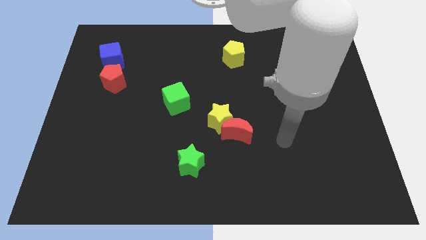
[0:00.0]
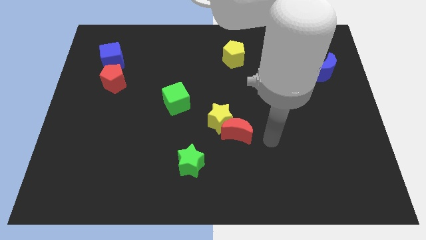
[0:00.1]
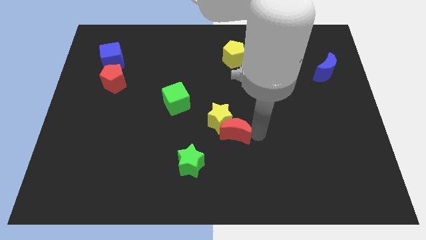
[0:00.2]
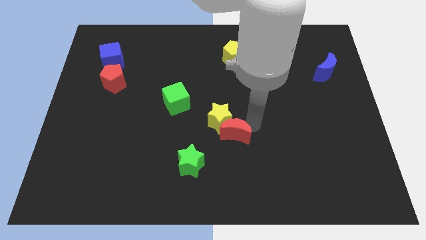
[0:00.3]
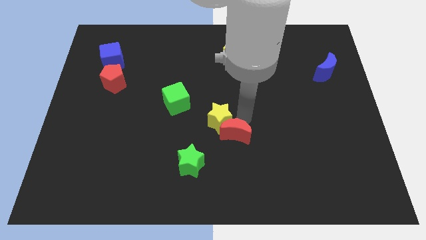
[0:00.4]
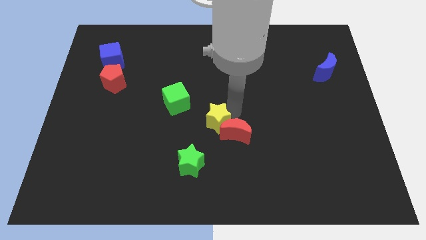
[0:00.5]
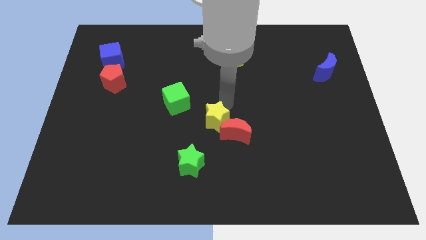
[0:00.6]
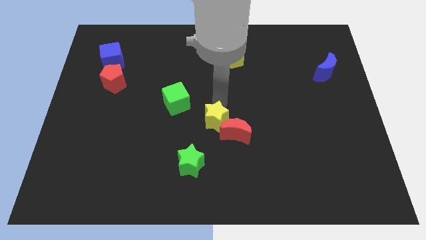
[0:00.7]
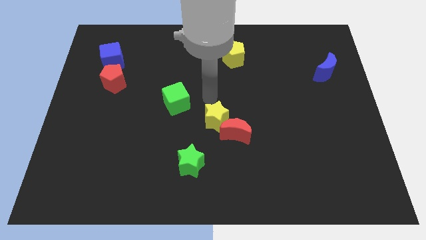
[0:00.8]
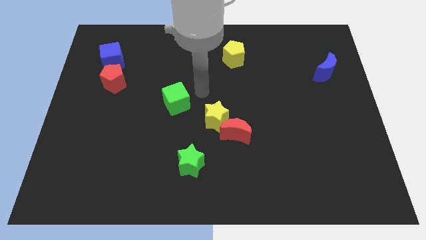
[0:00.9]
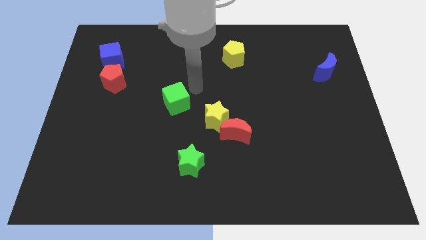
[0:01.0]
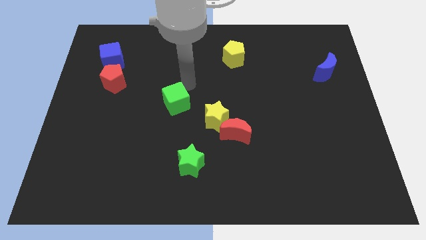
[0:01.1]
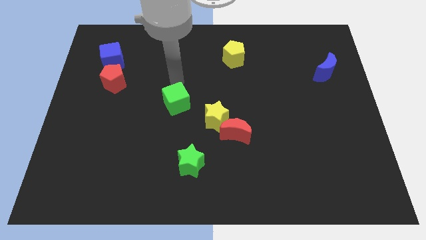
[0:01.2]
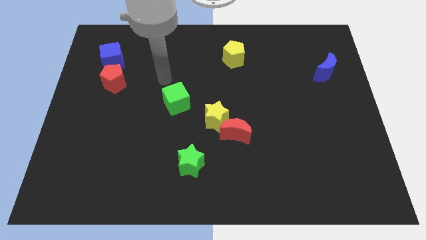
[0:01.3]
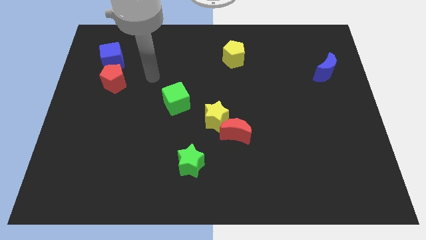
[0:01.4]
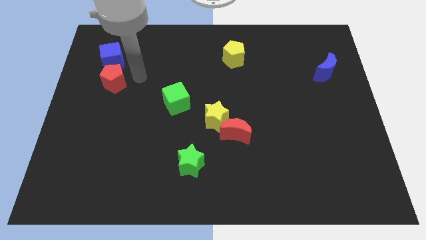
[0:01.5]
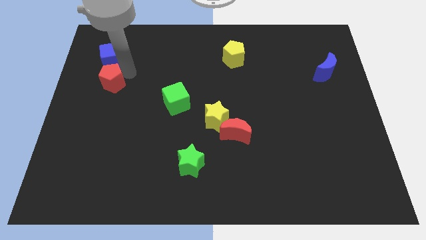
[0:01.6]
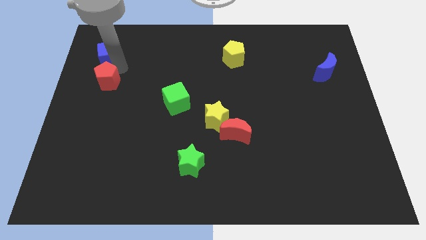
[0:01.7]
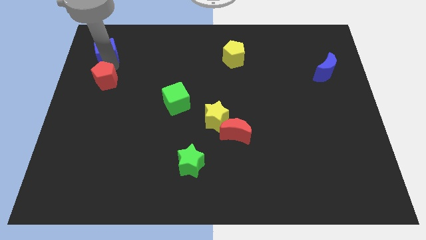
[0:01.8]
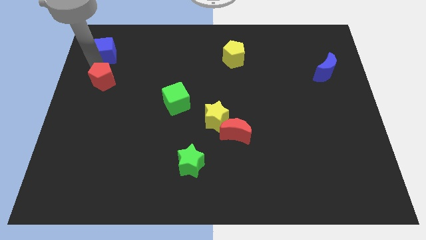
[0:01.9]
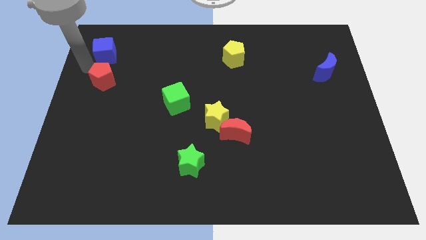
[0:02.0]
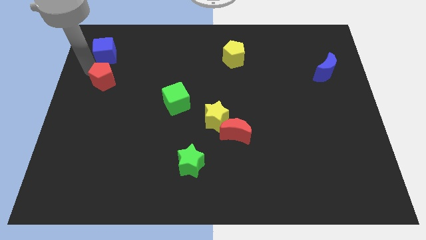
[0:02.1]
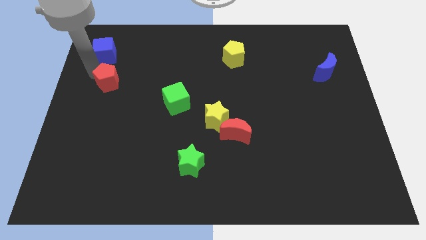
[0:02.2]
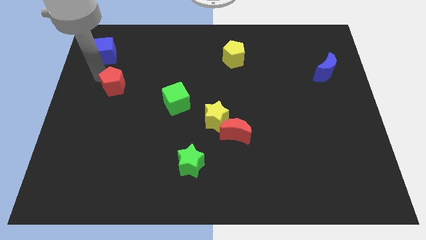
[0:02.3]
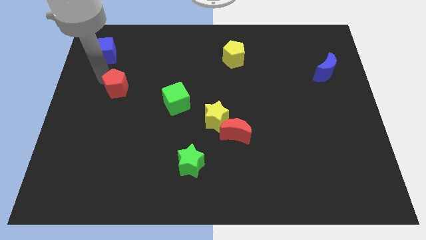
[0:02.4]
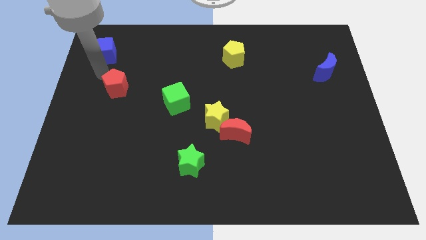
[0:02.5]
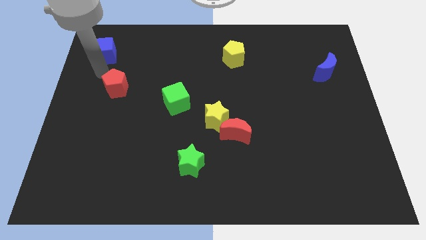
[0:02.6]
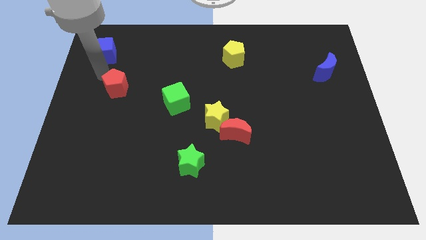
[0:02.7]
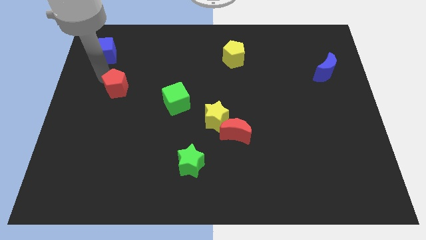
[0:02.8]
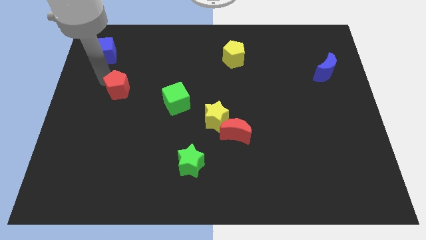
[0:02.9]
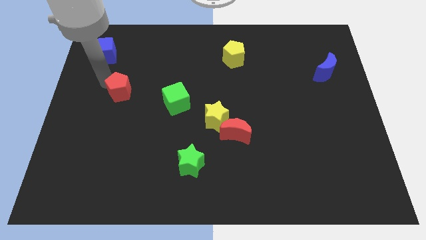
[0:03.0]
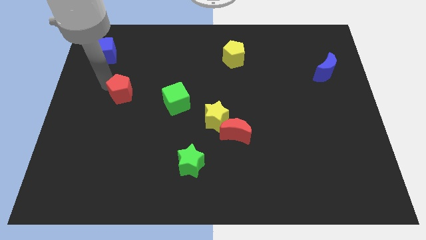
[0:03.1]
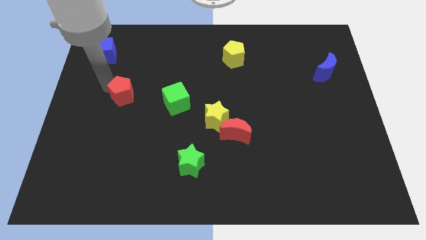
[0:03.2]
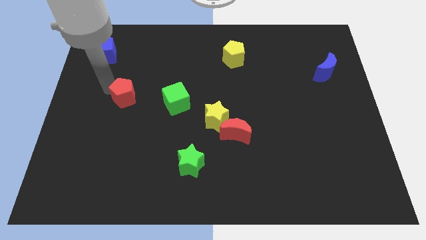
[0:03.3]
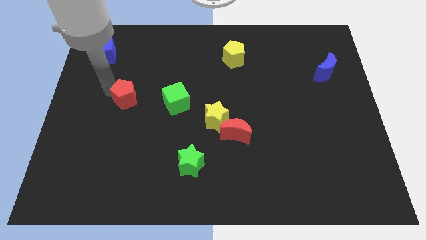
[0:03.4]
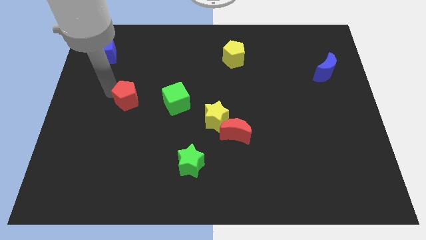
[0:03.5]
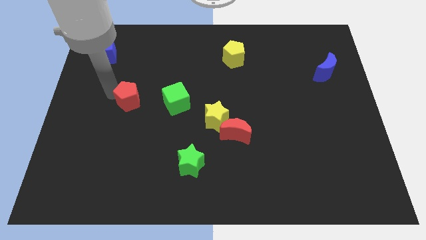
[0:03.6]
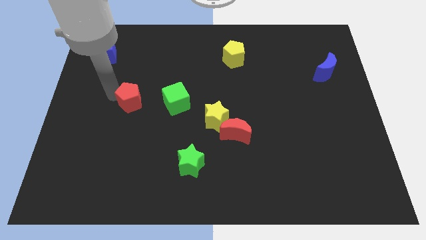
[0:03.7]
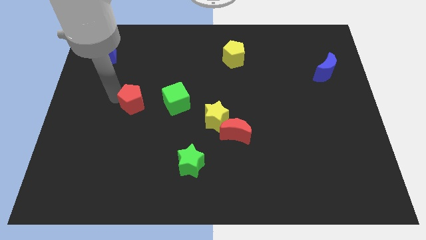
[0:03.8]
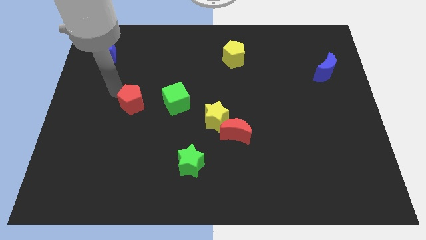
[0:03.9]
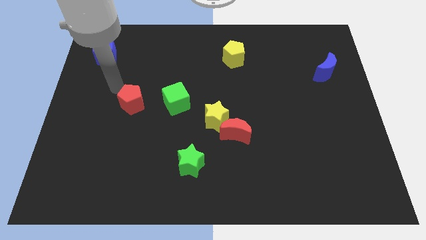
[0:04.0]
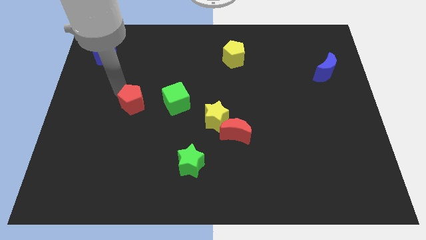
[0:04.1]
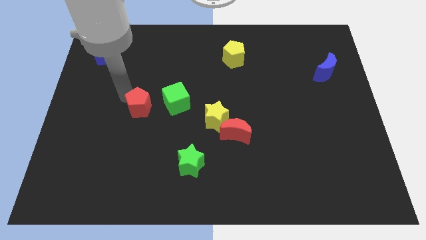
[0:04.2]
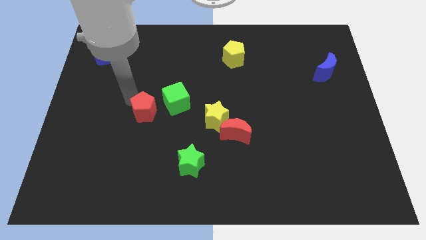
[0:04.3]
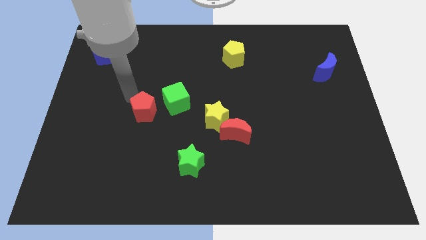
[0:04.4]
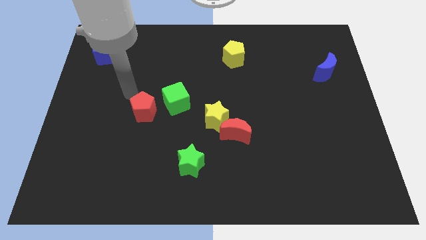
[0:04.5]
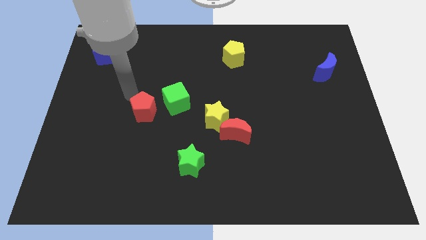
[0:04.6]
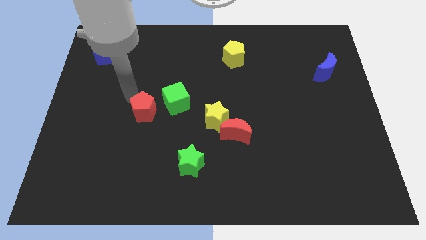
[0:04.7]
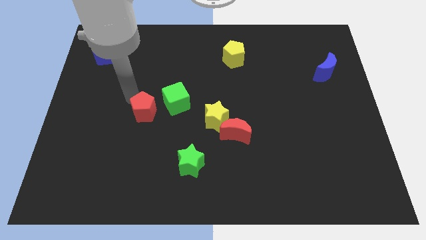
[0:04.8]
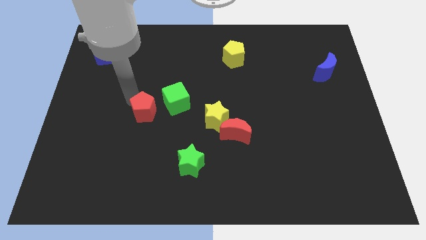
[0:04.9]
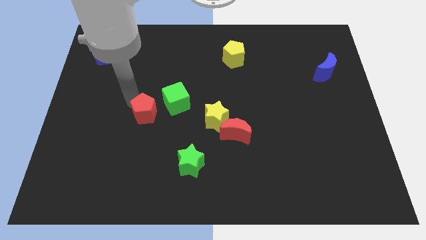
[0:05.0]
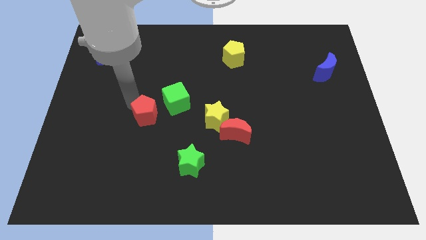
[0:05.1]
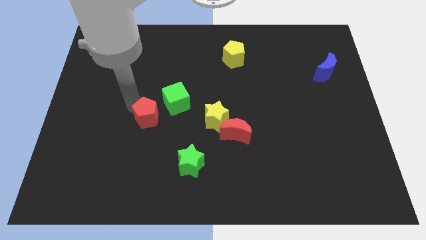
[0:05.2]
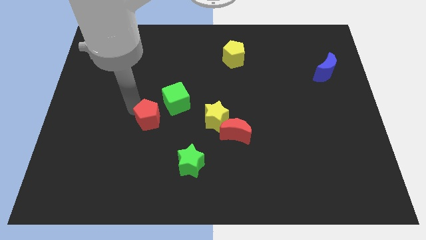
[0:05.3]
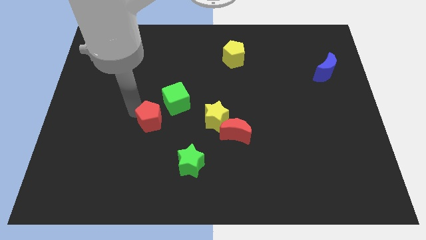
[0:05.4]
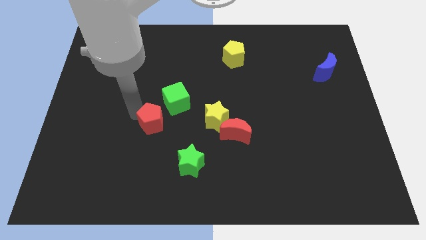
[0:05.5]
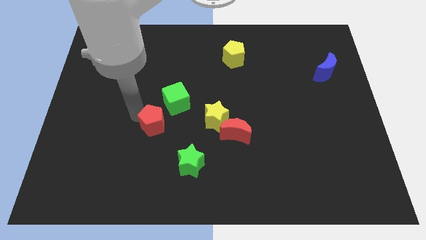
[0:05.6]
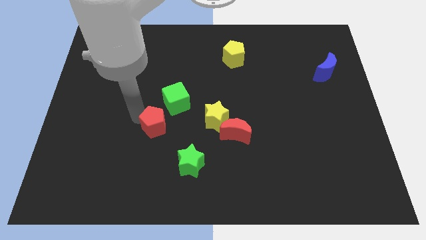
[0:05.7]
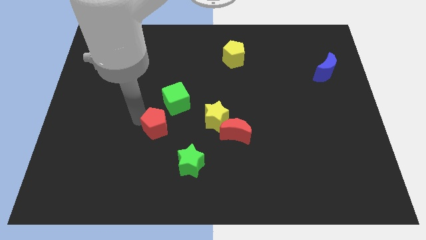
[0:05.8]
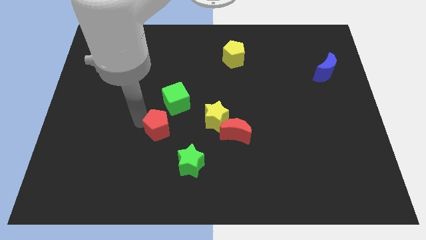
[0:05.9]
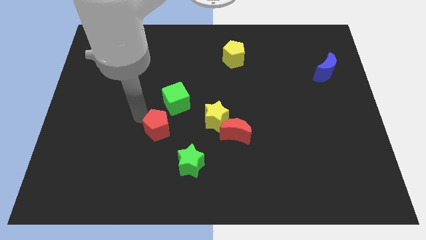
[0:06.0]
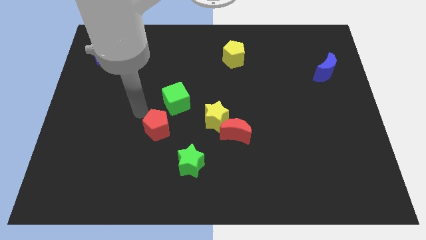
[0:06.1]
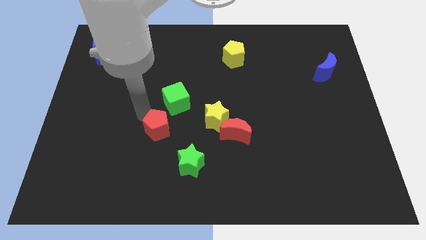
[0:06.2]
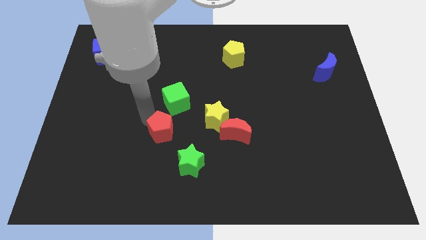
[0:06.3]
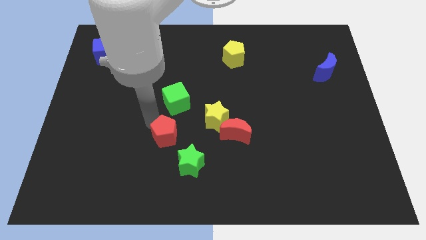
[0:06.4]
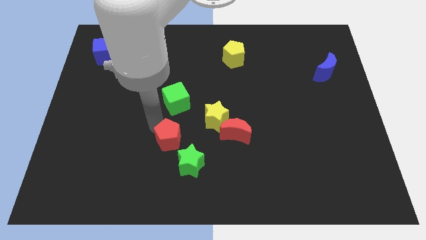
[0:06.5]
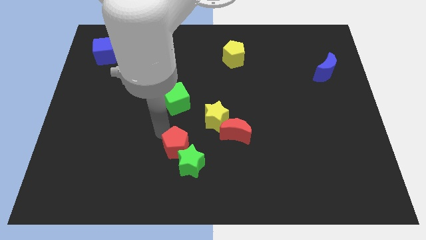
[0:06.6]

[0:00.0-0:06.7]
push the red pentagon next to the green star

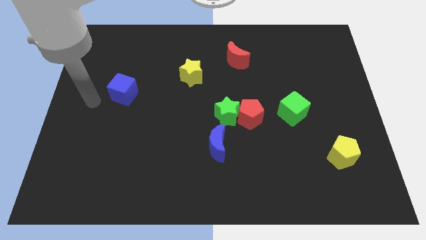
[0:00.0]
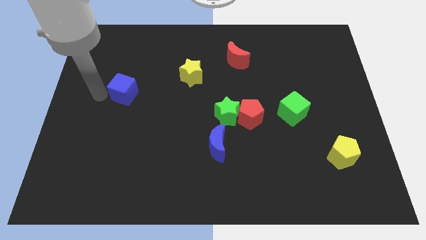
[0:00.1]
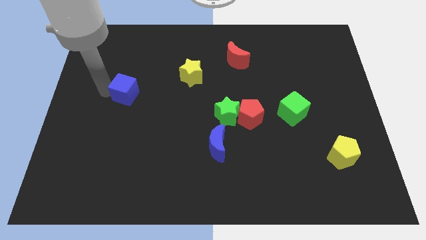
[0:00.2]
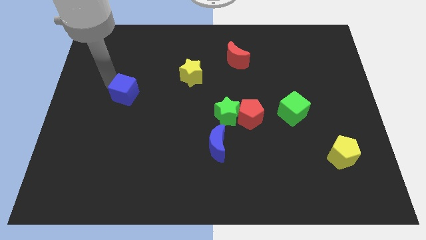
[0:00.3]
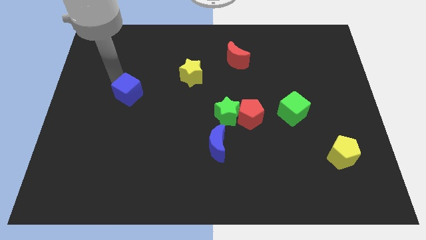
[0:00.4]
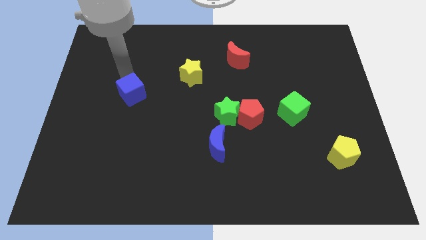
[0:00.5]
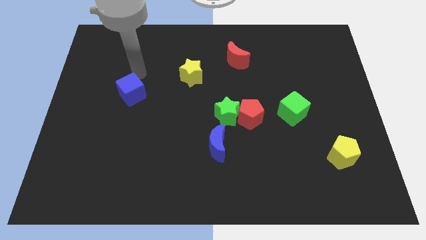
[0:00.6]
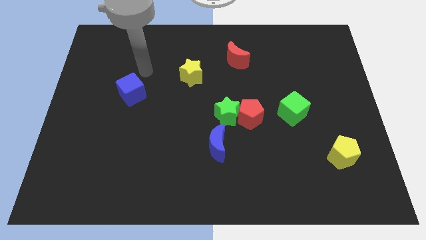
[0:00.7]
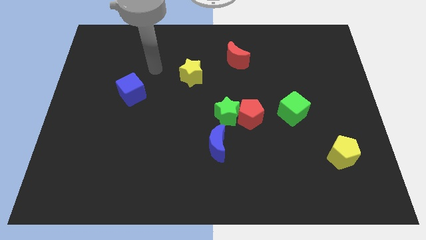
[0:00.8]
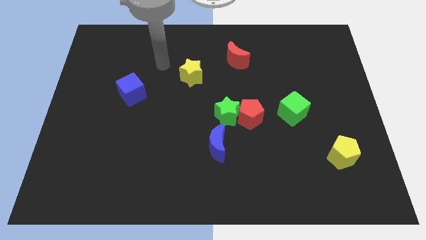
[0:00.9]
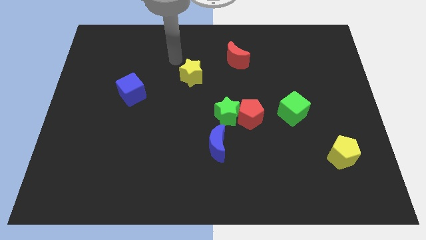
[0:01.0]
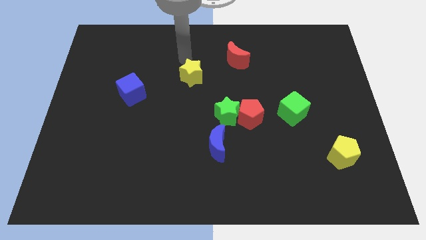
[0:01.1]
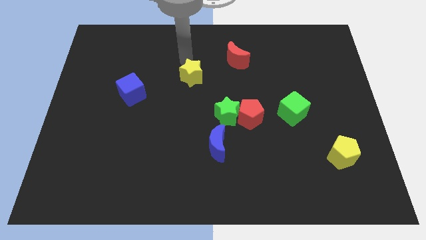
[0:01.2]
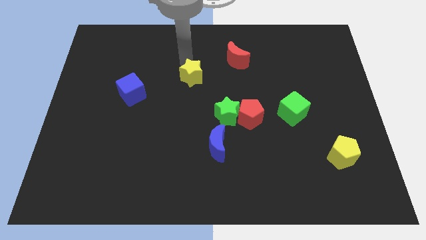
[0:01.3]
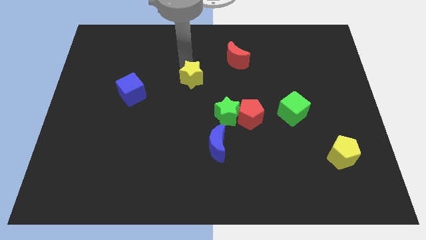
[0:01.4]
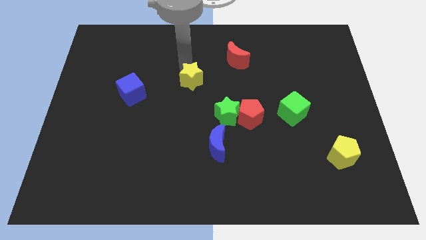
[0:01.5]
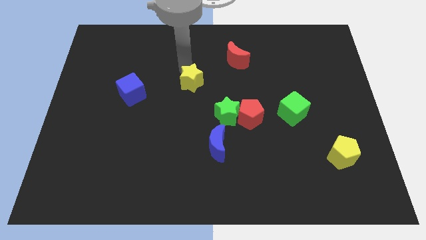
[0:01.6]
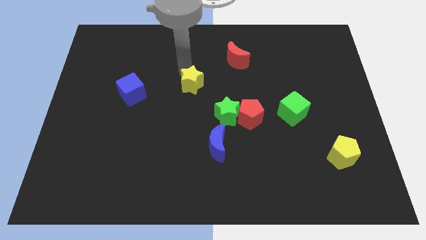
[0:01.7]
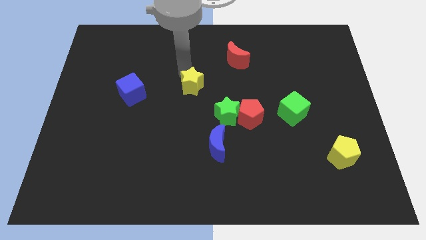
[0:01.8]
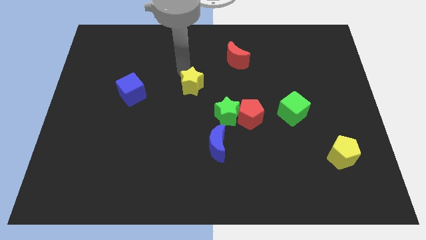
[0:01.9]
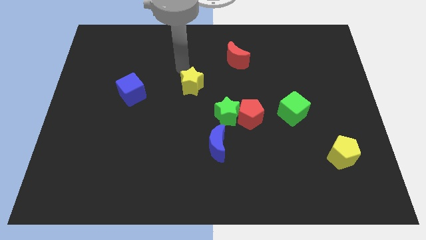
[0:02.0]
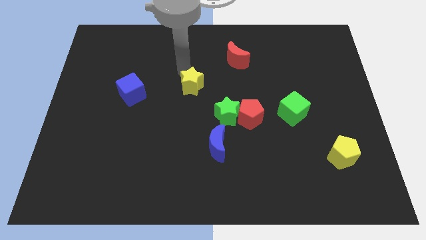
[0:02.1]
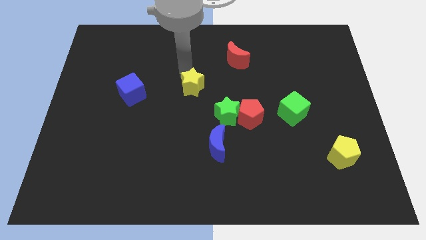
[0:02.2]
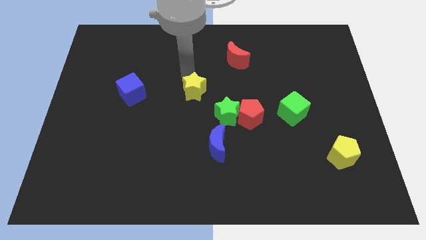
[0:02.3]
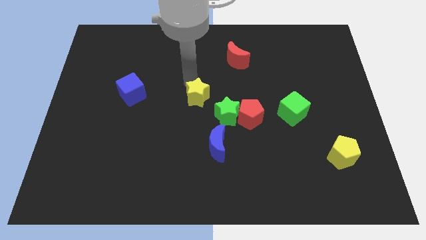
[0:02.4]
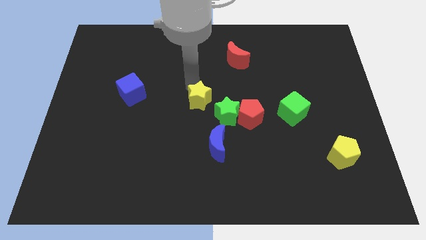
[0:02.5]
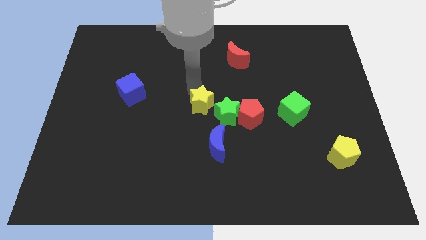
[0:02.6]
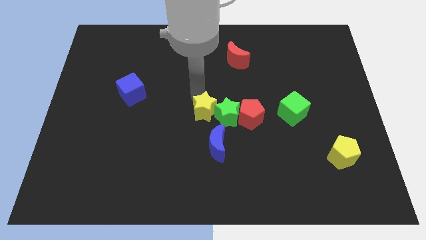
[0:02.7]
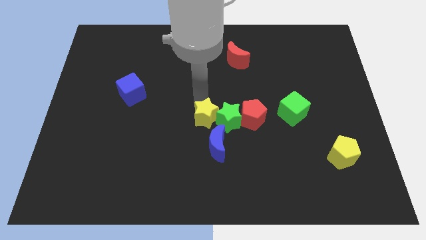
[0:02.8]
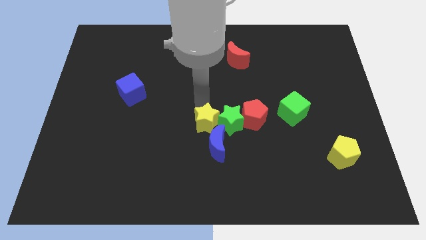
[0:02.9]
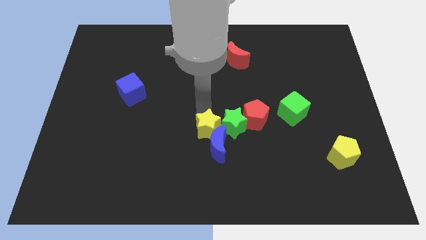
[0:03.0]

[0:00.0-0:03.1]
push the yellow star to the blue moon
